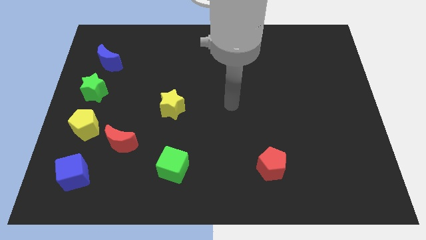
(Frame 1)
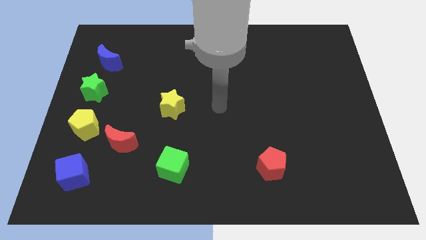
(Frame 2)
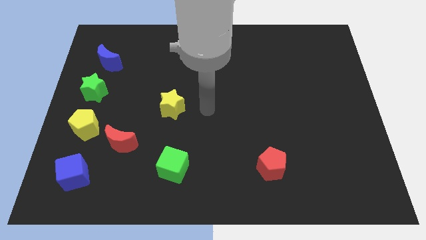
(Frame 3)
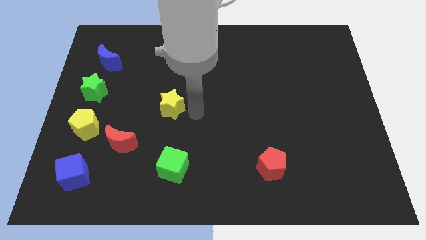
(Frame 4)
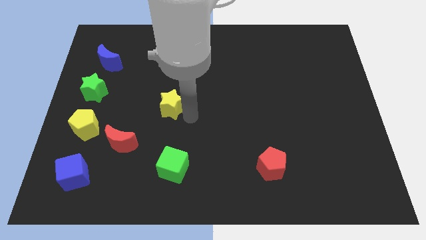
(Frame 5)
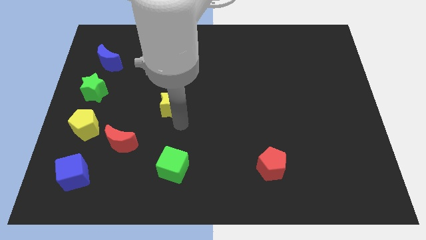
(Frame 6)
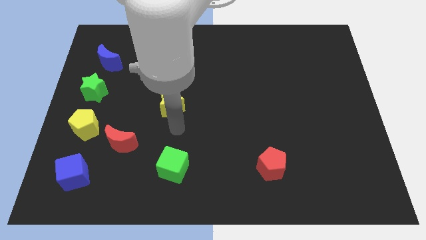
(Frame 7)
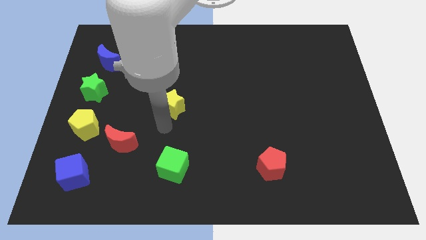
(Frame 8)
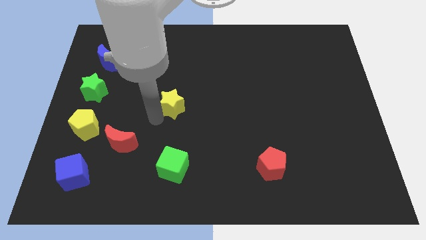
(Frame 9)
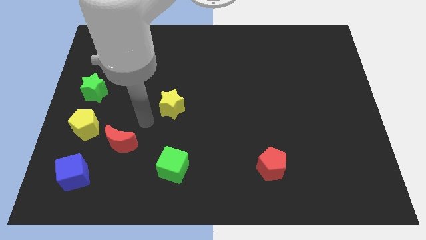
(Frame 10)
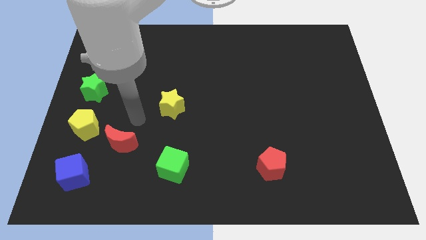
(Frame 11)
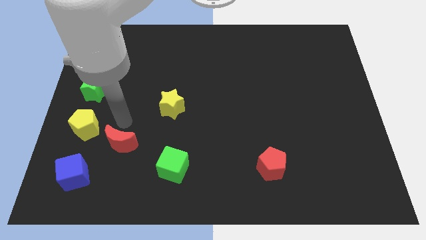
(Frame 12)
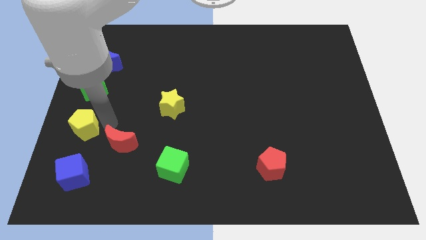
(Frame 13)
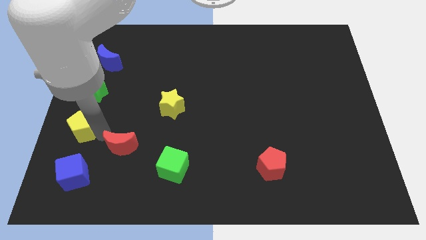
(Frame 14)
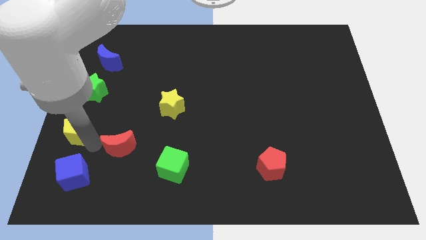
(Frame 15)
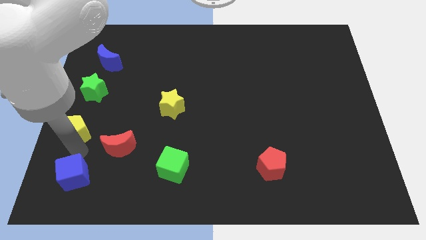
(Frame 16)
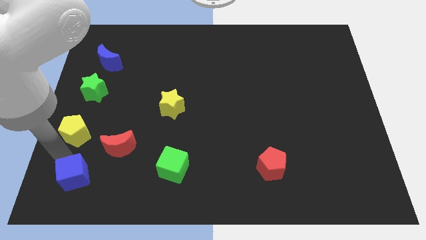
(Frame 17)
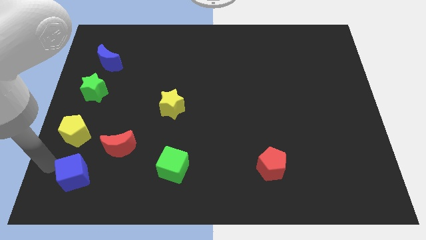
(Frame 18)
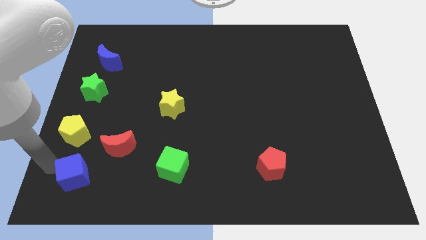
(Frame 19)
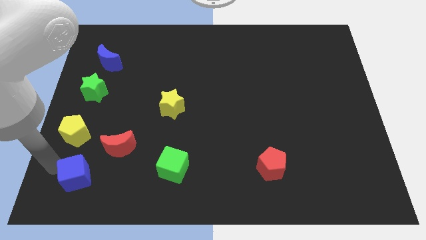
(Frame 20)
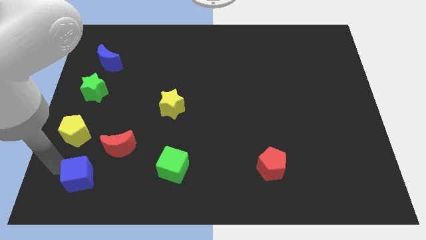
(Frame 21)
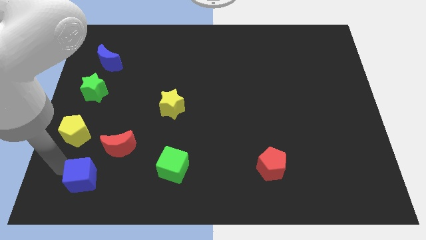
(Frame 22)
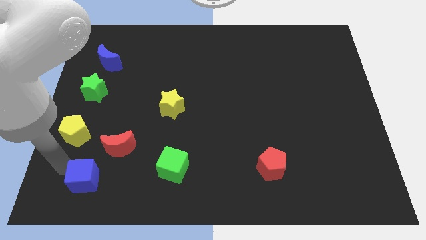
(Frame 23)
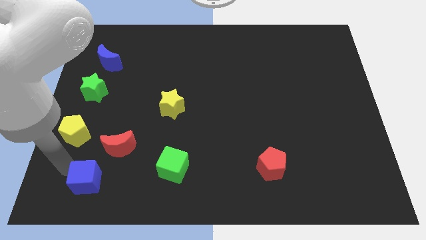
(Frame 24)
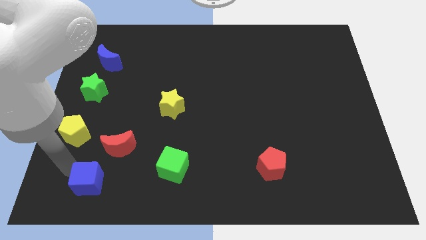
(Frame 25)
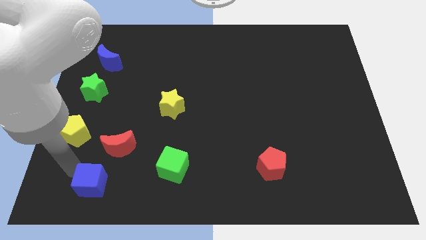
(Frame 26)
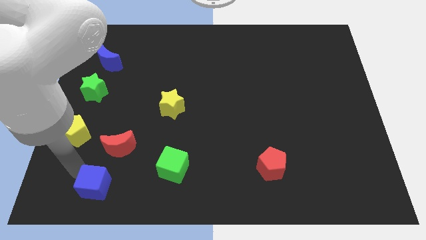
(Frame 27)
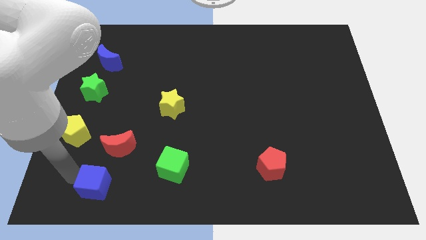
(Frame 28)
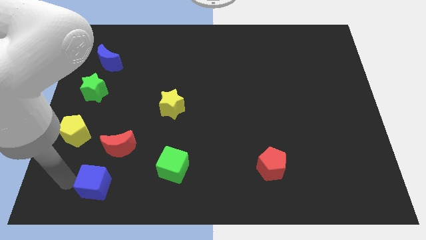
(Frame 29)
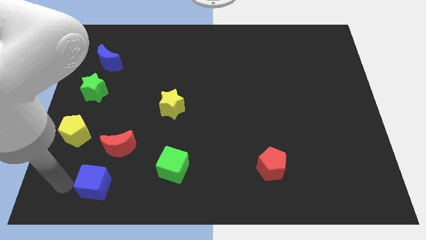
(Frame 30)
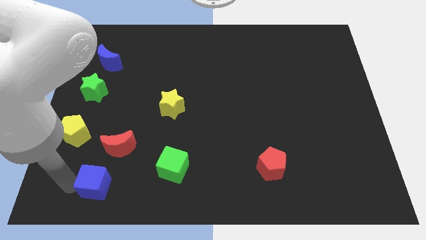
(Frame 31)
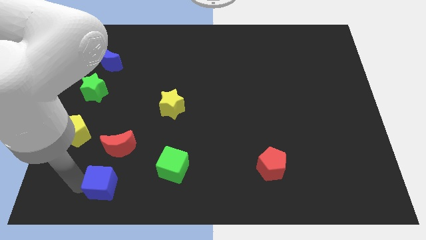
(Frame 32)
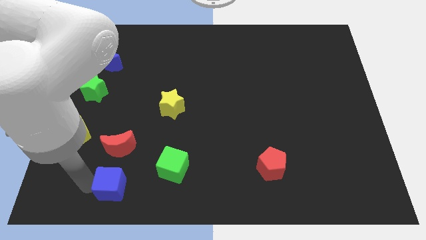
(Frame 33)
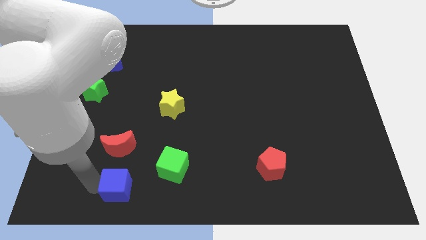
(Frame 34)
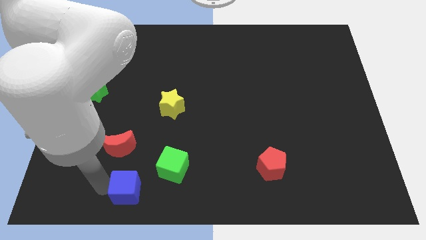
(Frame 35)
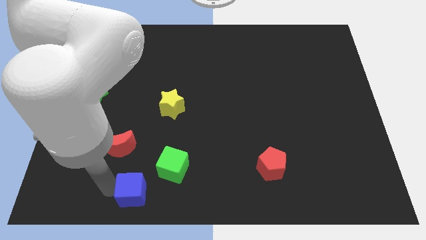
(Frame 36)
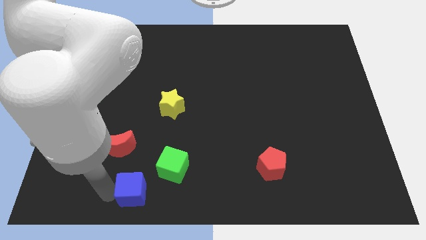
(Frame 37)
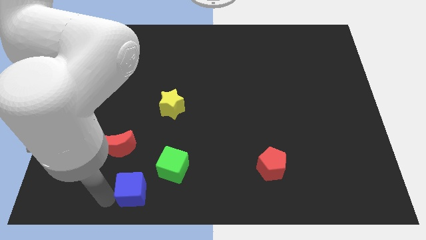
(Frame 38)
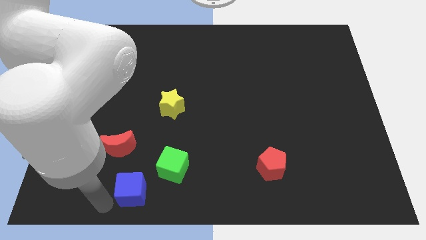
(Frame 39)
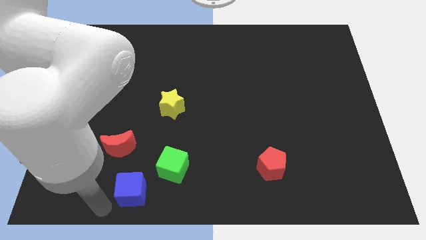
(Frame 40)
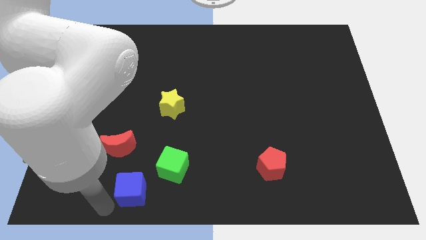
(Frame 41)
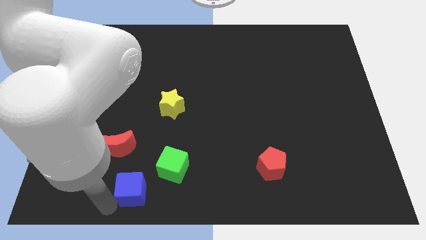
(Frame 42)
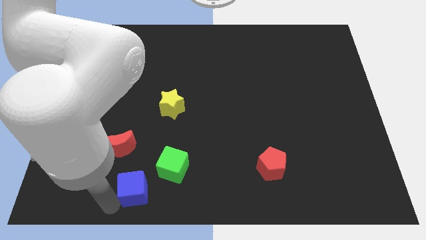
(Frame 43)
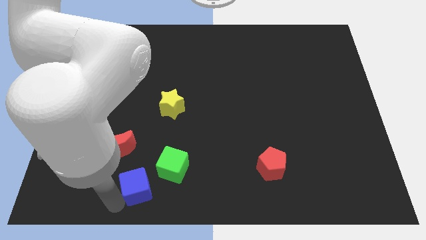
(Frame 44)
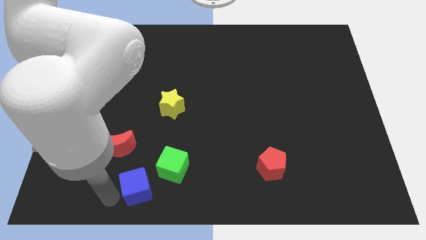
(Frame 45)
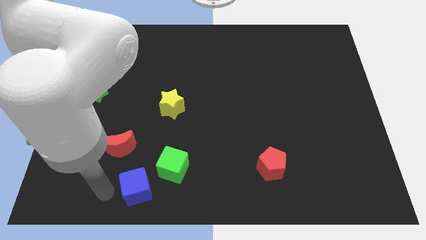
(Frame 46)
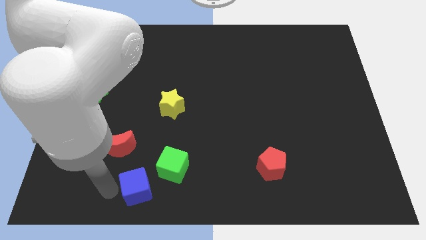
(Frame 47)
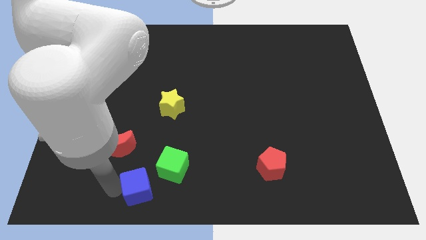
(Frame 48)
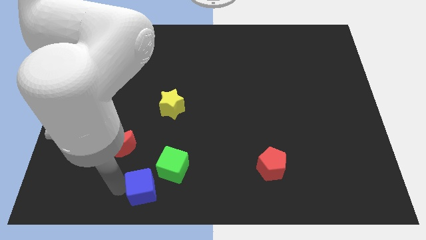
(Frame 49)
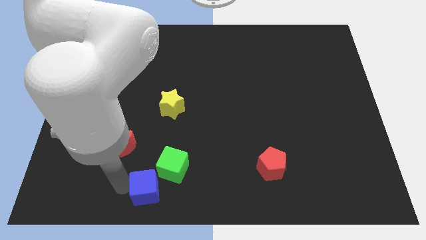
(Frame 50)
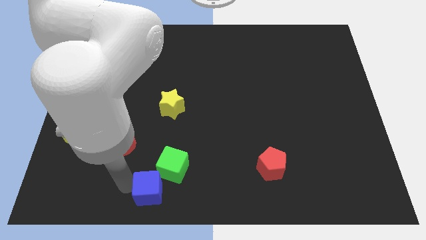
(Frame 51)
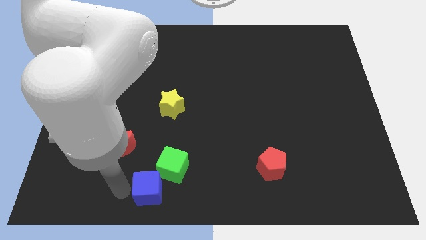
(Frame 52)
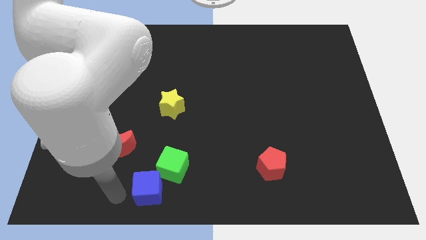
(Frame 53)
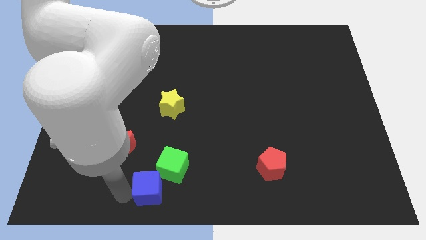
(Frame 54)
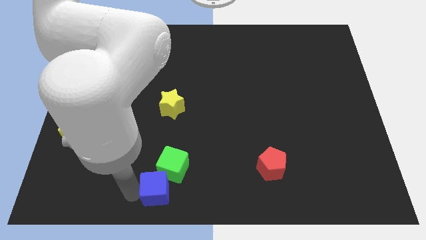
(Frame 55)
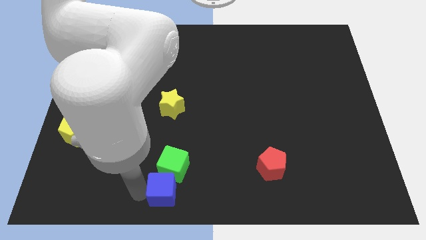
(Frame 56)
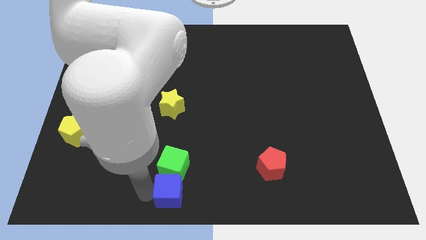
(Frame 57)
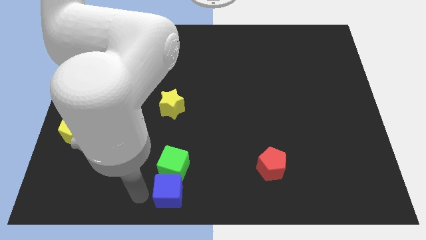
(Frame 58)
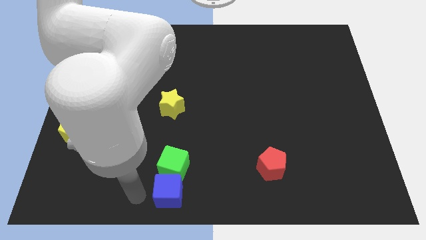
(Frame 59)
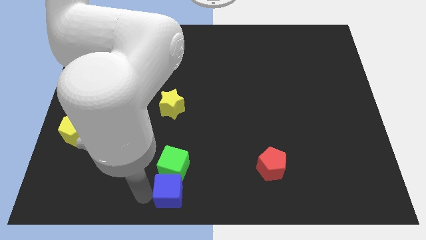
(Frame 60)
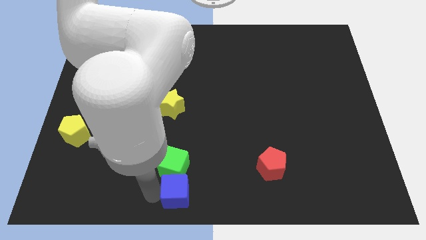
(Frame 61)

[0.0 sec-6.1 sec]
move the blue cube right

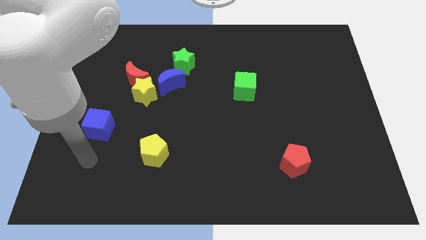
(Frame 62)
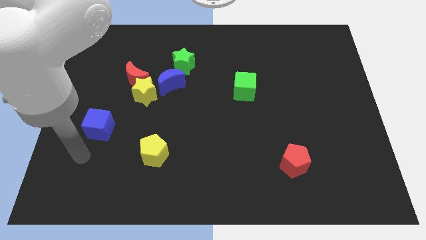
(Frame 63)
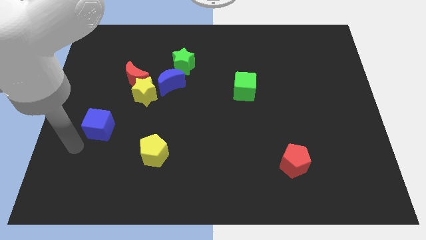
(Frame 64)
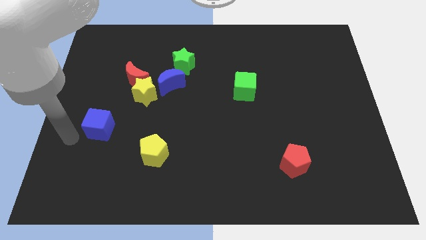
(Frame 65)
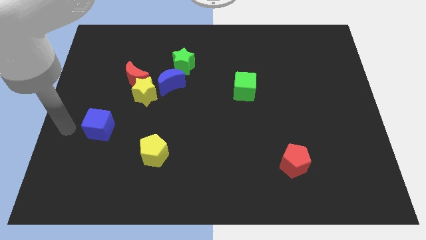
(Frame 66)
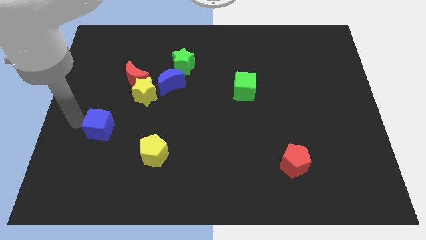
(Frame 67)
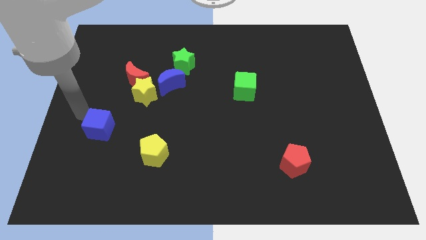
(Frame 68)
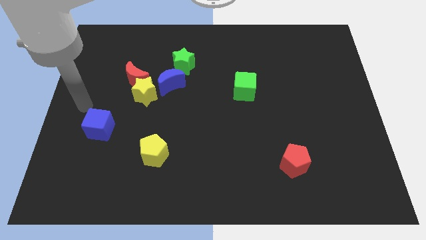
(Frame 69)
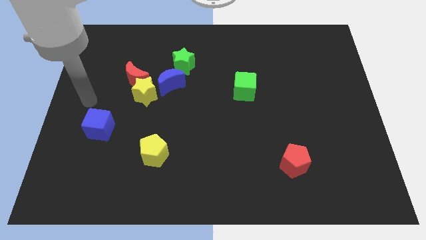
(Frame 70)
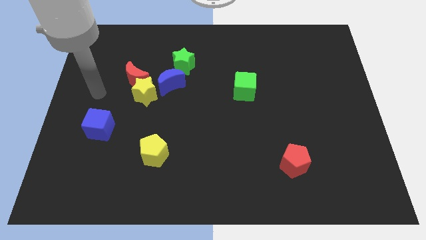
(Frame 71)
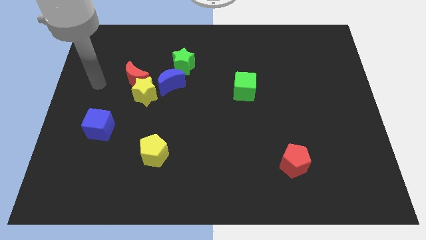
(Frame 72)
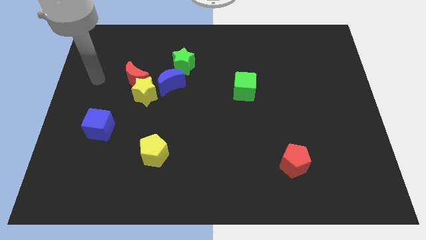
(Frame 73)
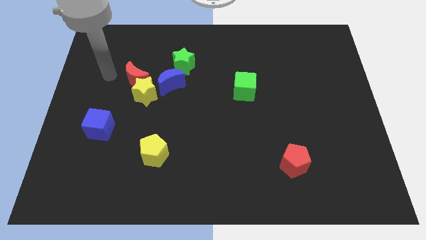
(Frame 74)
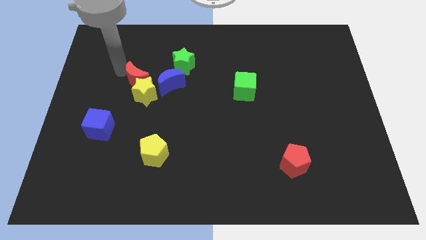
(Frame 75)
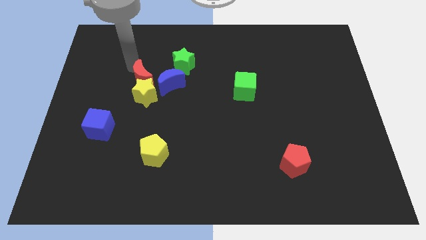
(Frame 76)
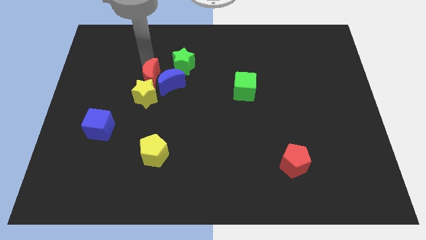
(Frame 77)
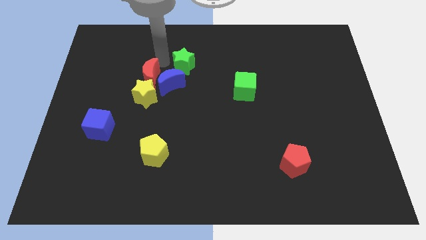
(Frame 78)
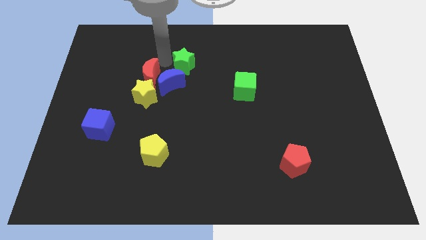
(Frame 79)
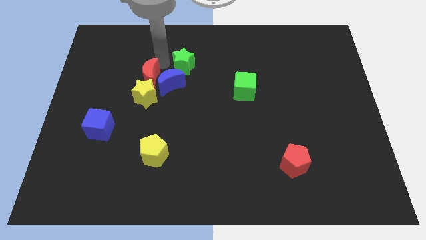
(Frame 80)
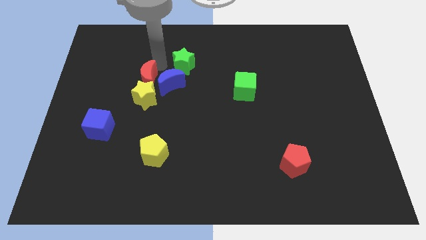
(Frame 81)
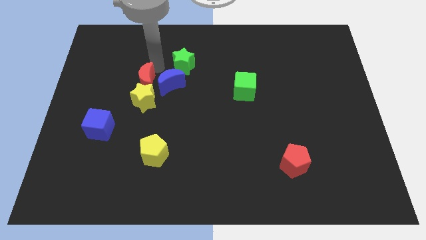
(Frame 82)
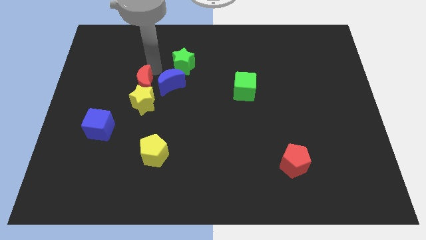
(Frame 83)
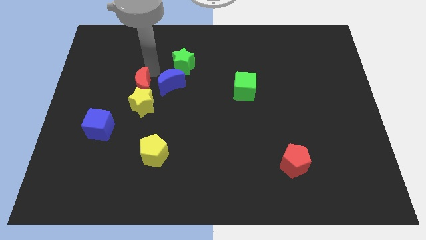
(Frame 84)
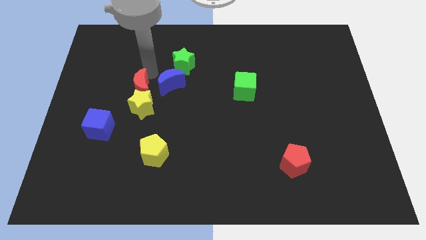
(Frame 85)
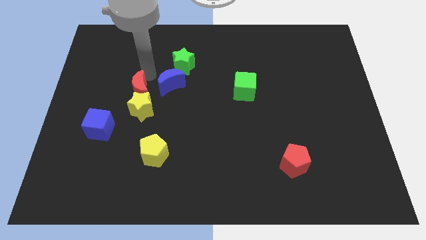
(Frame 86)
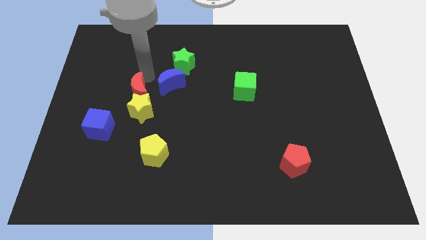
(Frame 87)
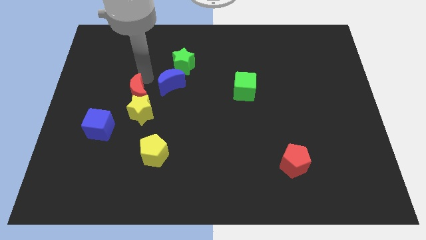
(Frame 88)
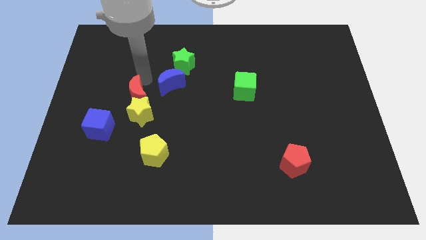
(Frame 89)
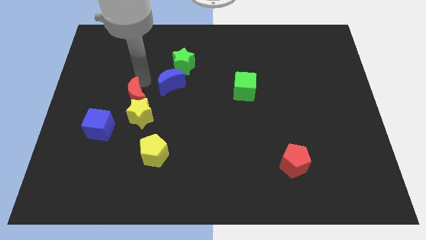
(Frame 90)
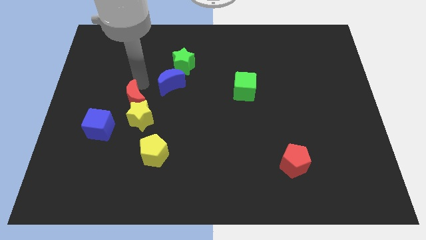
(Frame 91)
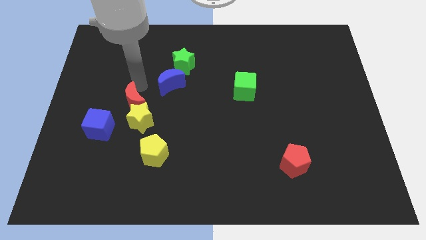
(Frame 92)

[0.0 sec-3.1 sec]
move the red moon a bit downwards
